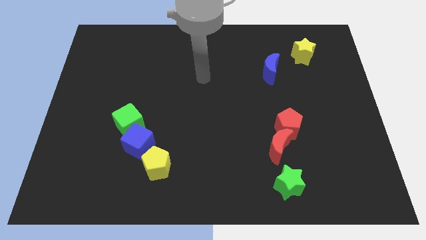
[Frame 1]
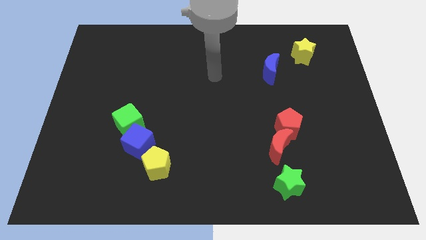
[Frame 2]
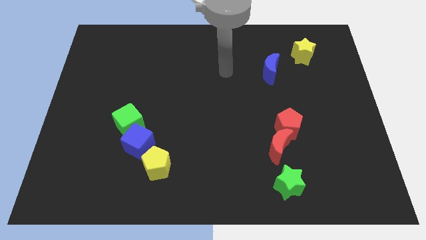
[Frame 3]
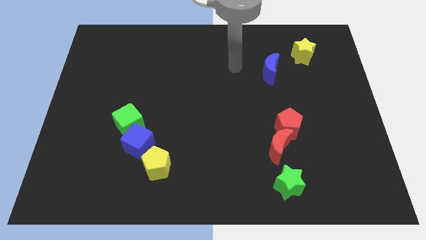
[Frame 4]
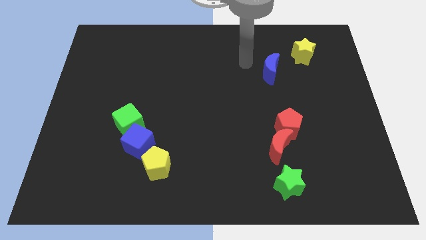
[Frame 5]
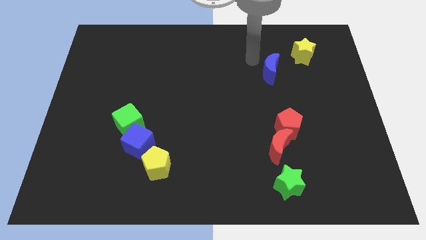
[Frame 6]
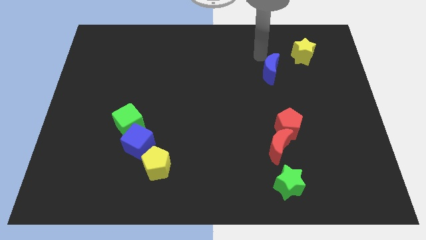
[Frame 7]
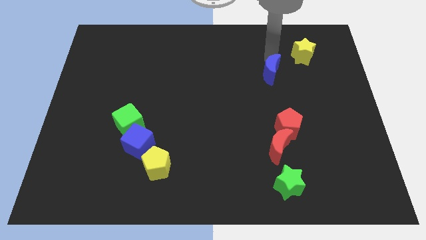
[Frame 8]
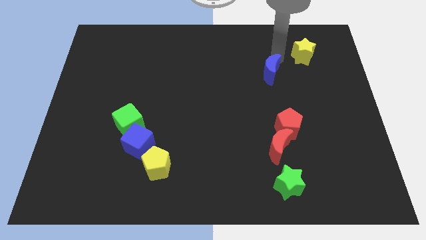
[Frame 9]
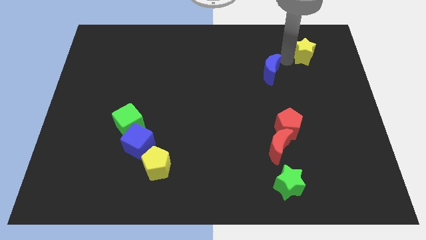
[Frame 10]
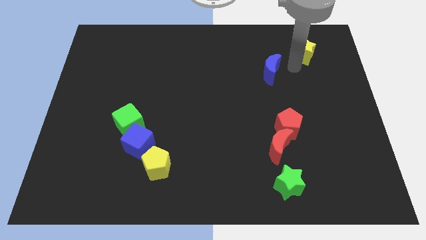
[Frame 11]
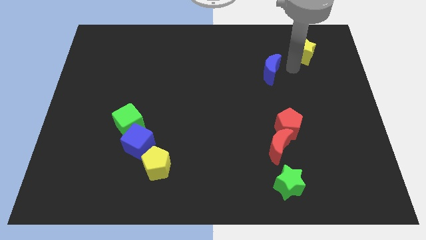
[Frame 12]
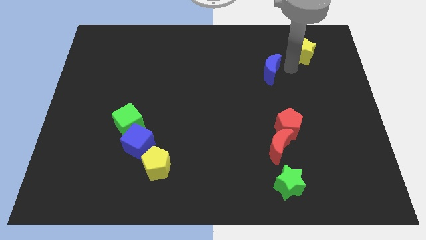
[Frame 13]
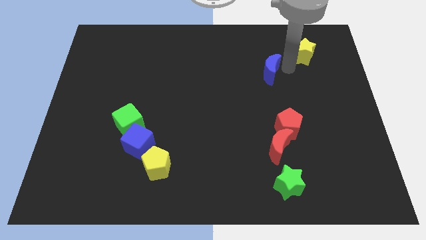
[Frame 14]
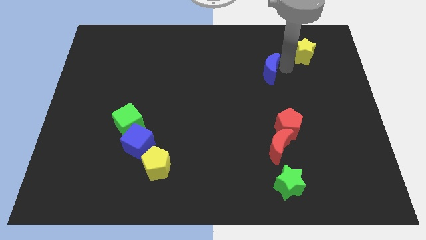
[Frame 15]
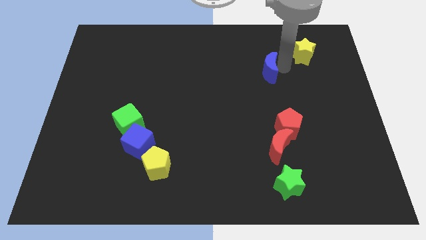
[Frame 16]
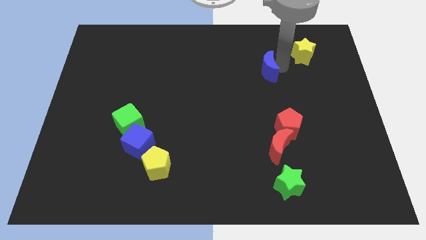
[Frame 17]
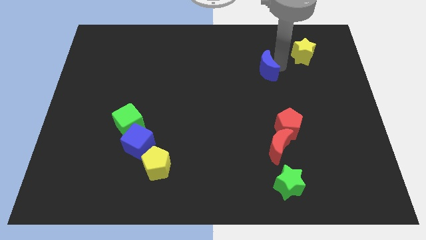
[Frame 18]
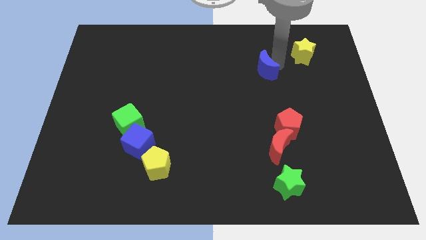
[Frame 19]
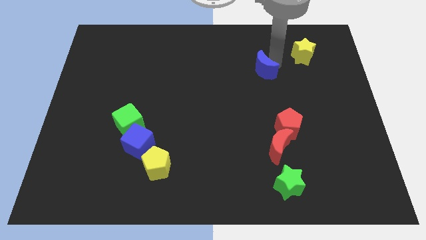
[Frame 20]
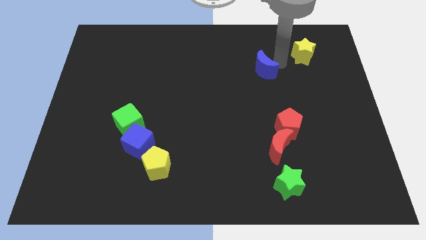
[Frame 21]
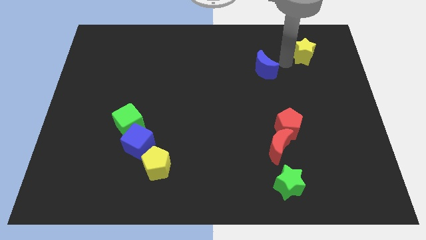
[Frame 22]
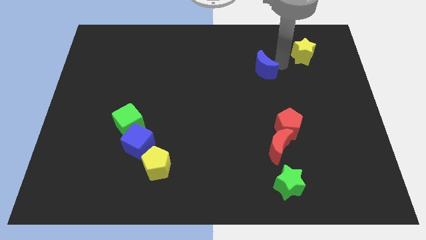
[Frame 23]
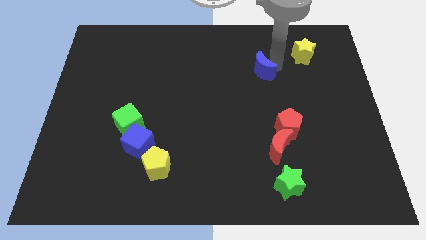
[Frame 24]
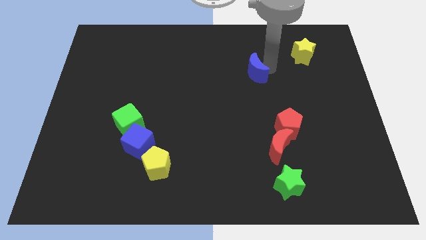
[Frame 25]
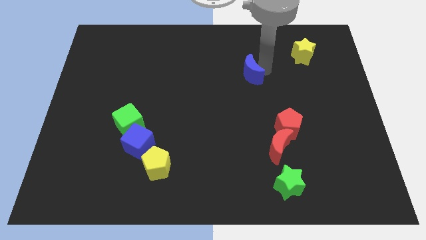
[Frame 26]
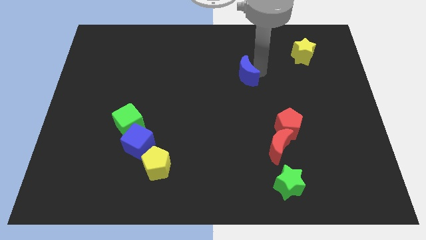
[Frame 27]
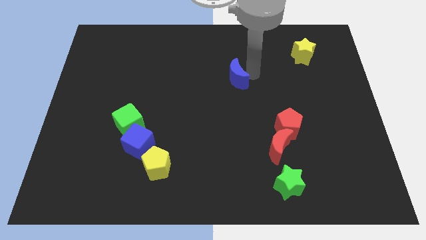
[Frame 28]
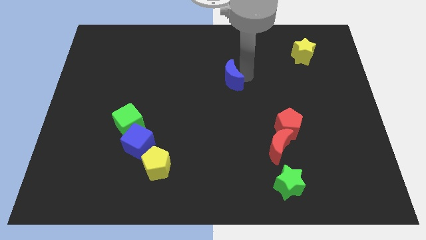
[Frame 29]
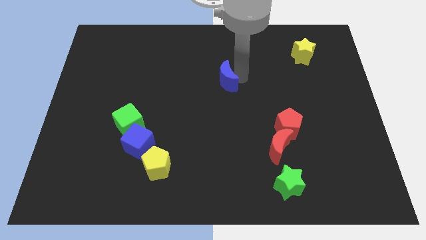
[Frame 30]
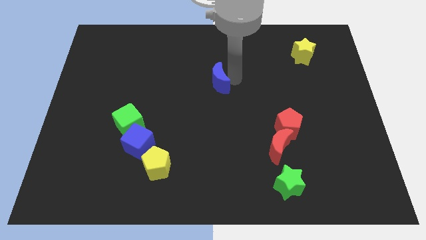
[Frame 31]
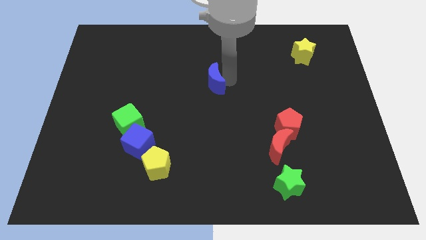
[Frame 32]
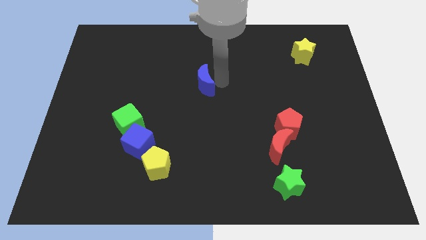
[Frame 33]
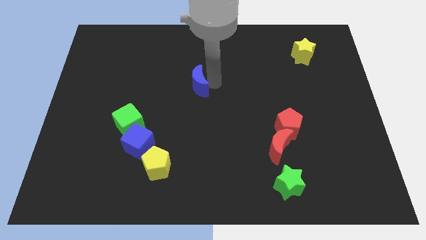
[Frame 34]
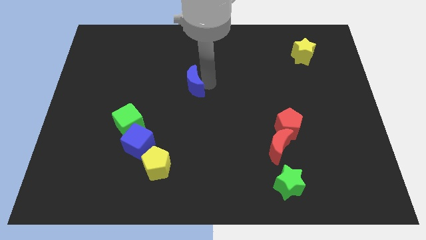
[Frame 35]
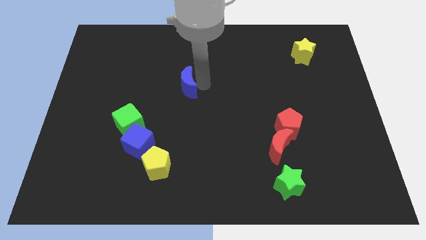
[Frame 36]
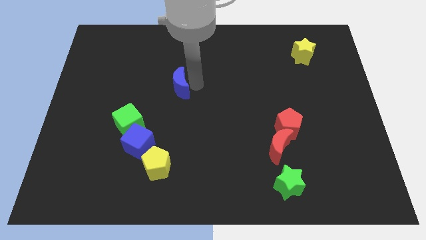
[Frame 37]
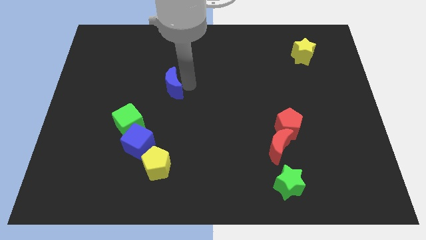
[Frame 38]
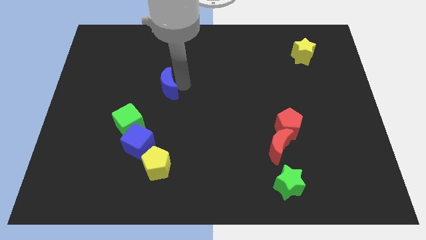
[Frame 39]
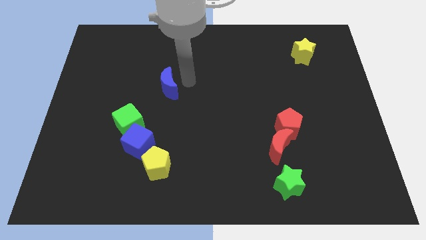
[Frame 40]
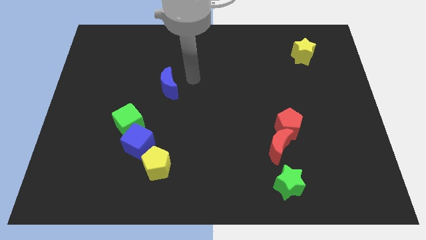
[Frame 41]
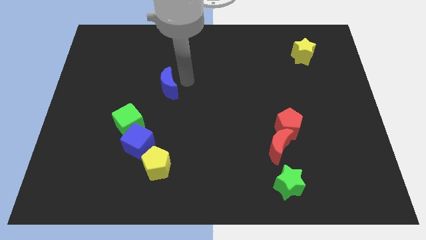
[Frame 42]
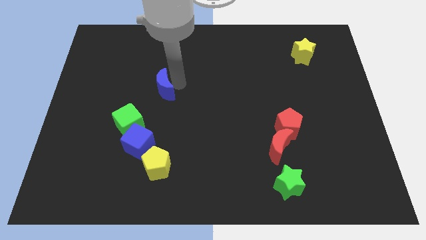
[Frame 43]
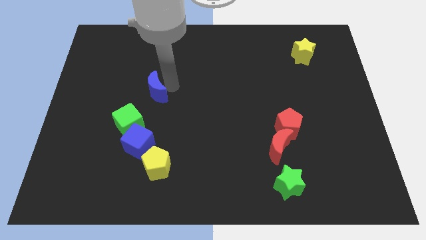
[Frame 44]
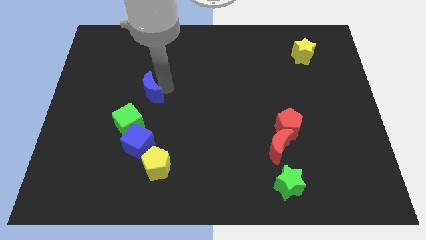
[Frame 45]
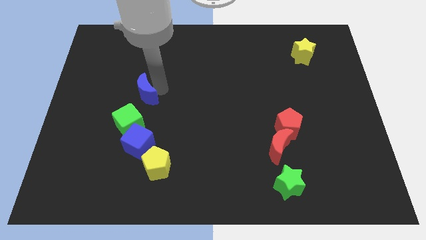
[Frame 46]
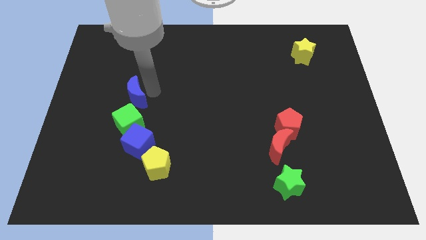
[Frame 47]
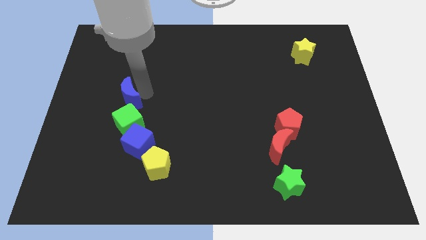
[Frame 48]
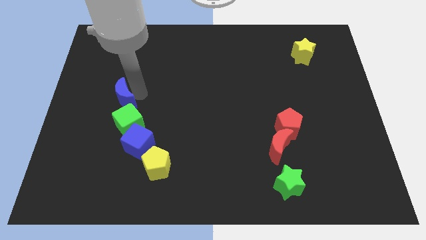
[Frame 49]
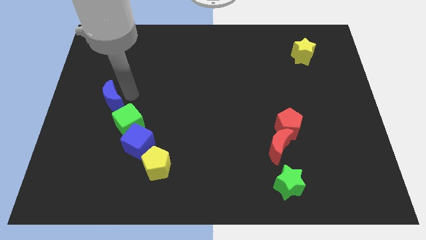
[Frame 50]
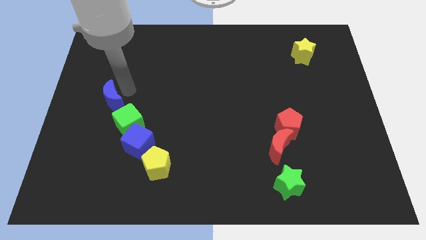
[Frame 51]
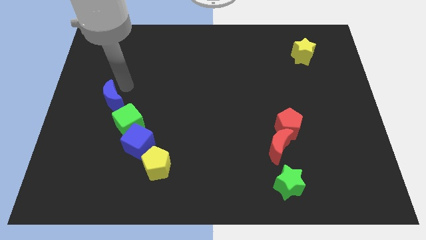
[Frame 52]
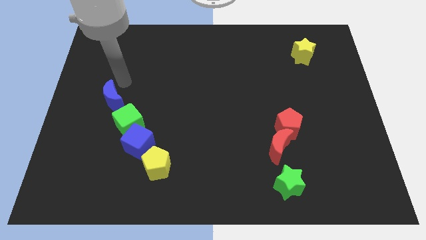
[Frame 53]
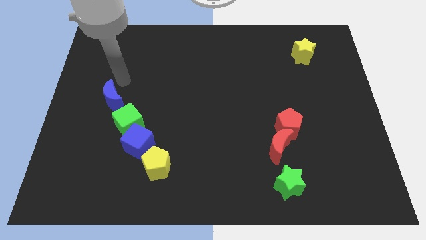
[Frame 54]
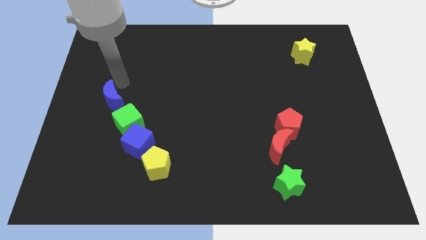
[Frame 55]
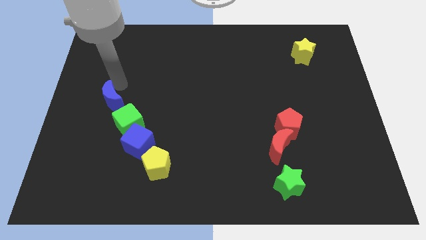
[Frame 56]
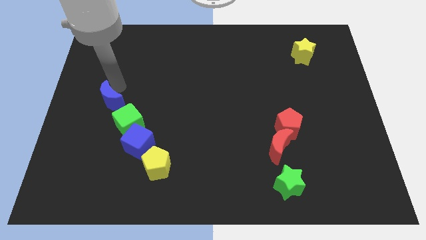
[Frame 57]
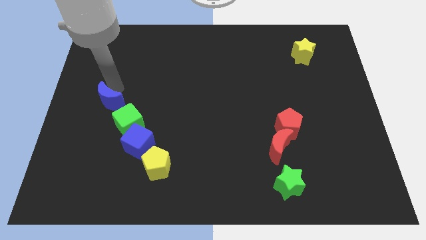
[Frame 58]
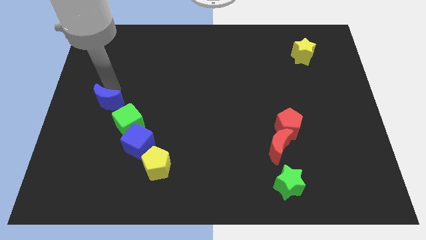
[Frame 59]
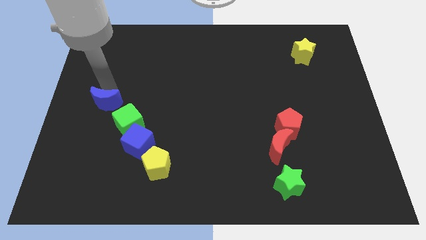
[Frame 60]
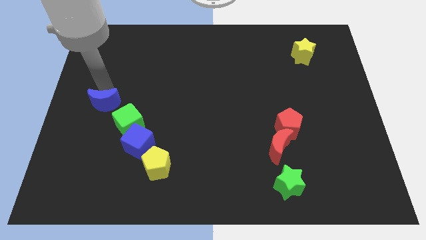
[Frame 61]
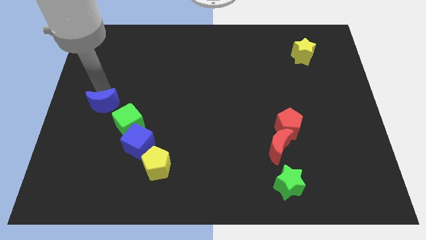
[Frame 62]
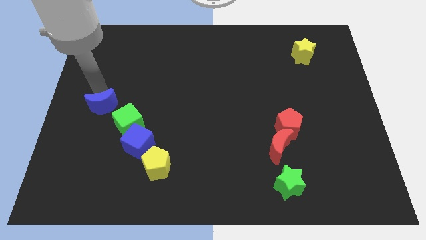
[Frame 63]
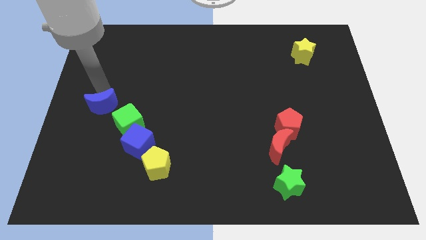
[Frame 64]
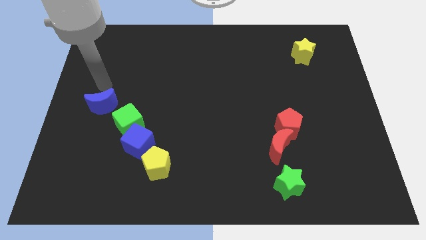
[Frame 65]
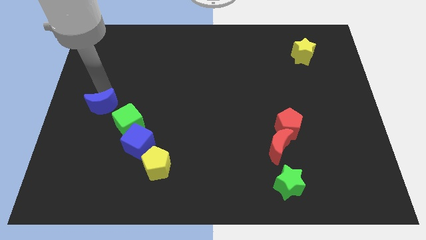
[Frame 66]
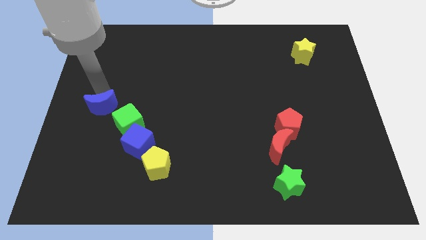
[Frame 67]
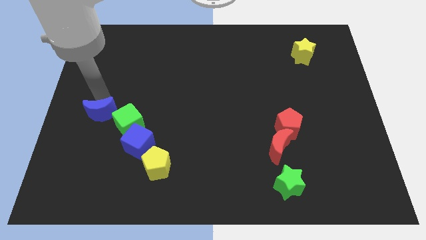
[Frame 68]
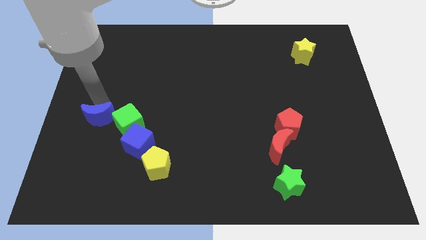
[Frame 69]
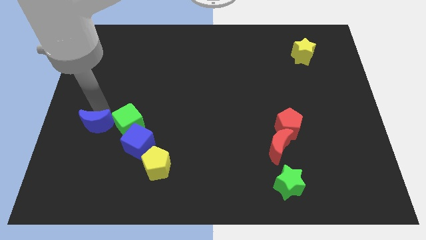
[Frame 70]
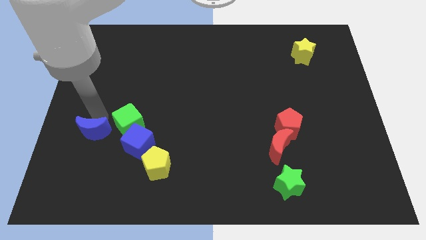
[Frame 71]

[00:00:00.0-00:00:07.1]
slide the blue moon left of the blue cube
